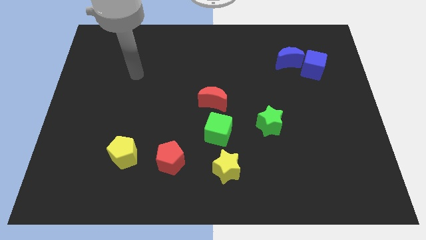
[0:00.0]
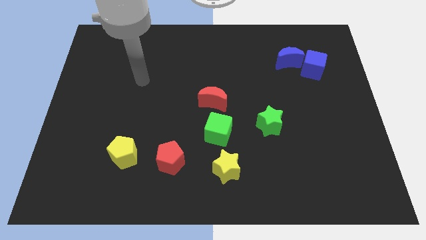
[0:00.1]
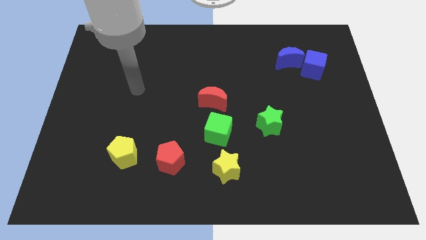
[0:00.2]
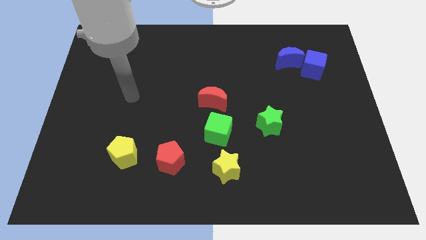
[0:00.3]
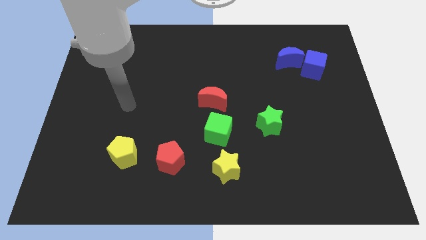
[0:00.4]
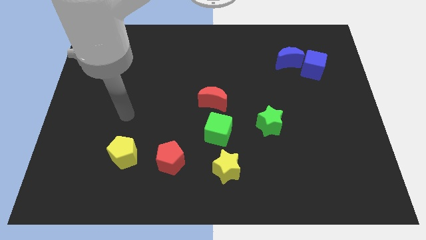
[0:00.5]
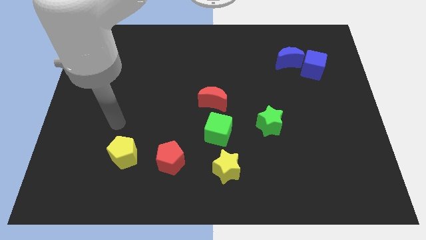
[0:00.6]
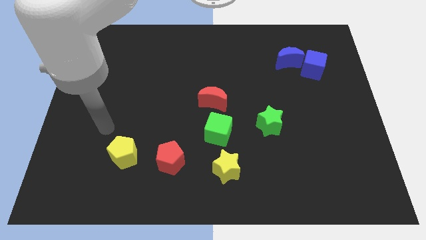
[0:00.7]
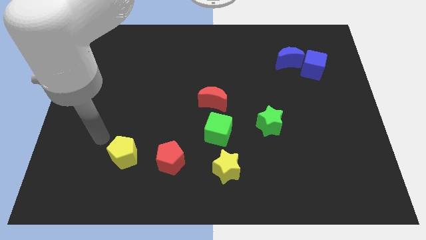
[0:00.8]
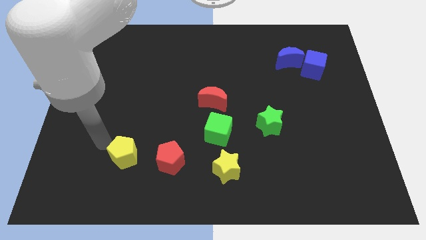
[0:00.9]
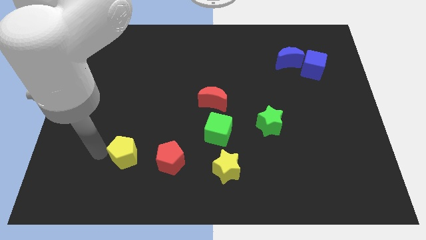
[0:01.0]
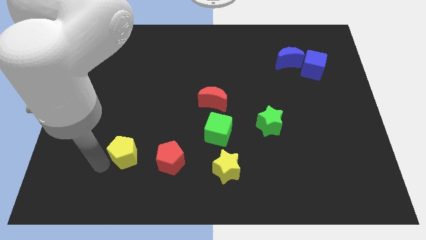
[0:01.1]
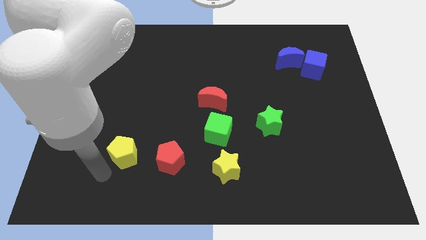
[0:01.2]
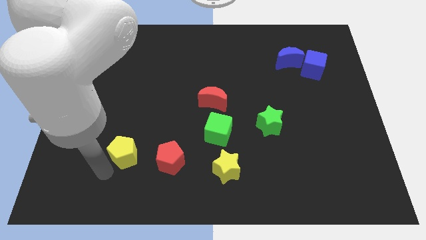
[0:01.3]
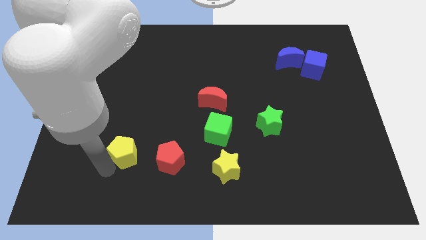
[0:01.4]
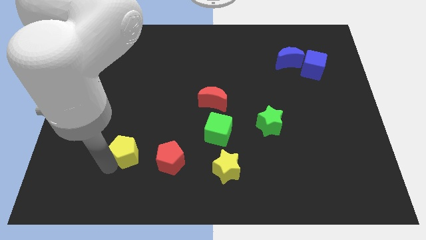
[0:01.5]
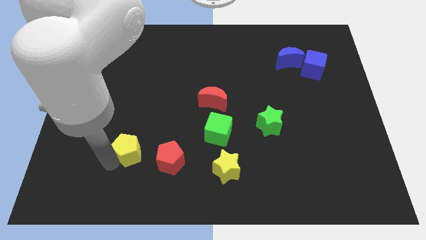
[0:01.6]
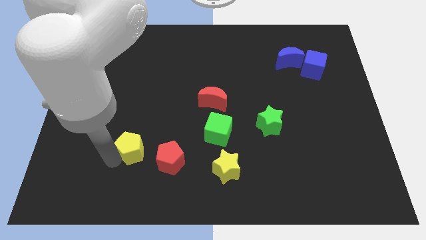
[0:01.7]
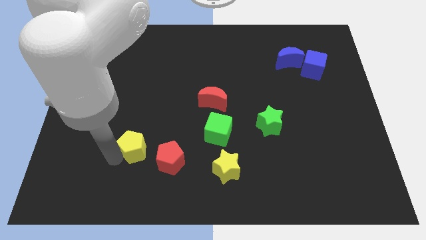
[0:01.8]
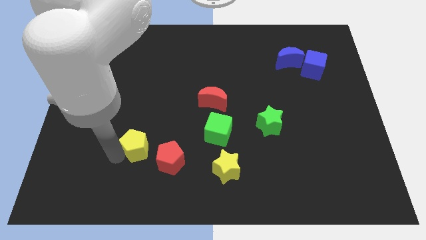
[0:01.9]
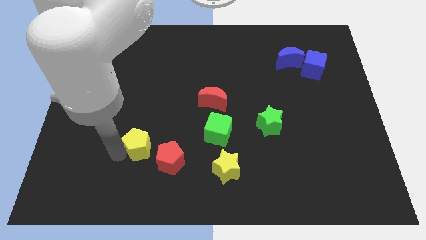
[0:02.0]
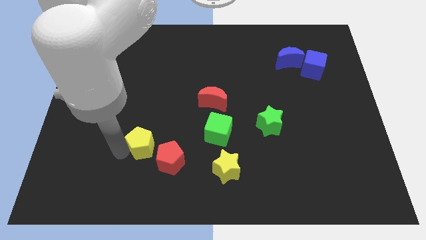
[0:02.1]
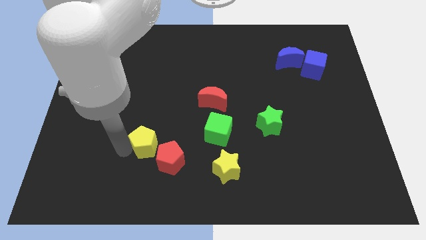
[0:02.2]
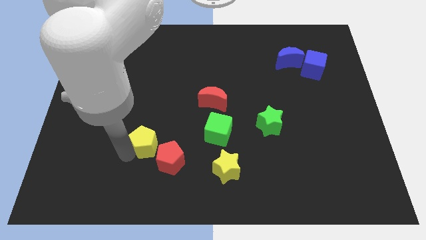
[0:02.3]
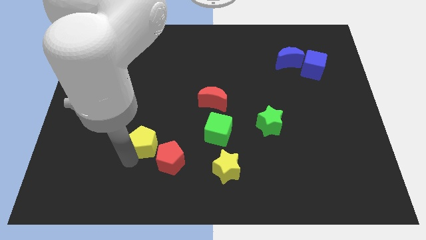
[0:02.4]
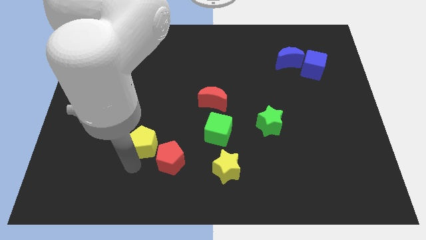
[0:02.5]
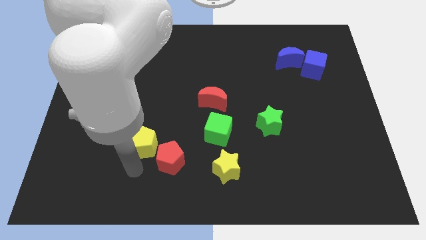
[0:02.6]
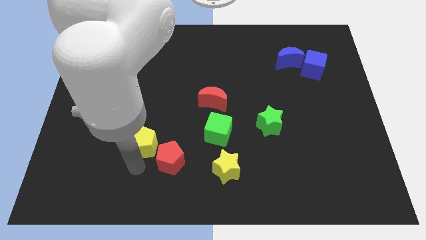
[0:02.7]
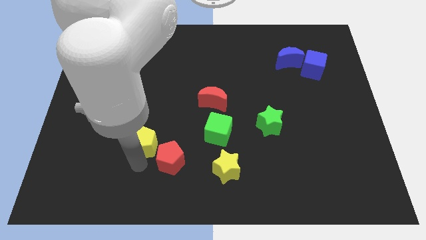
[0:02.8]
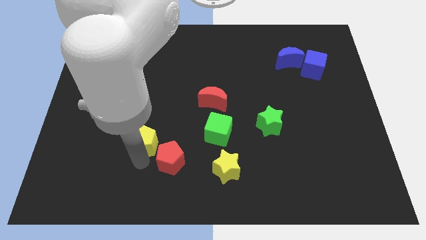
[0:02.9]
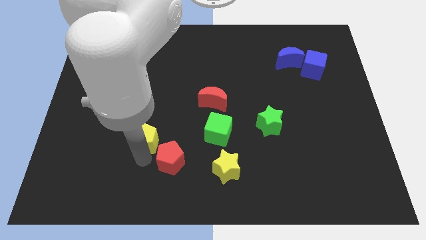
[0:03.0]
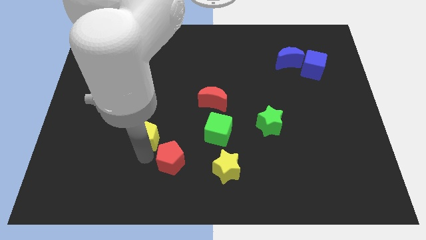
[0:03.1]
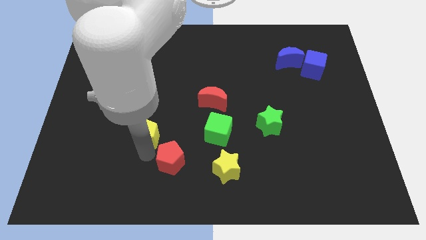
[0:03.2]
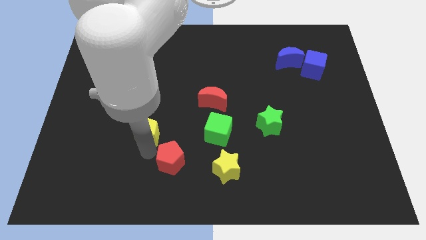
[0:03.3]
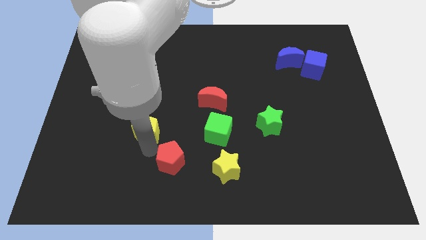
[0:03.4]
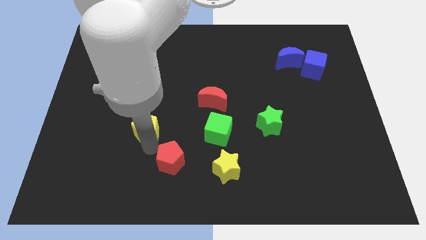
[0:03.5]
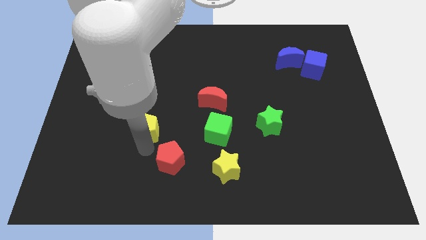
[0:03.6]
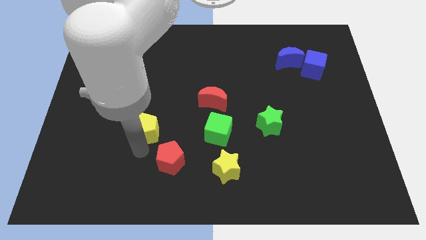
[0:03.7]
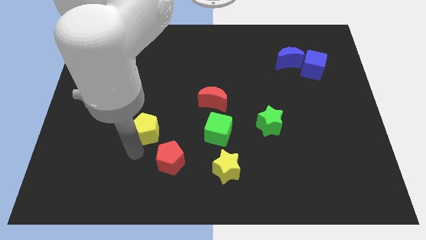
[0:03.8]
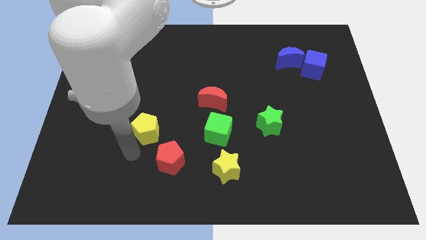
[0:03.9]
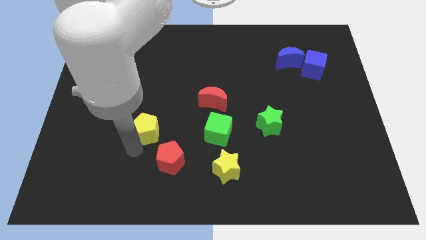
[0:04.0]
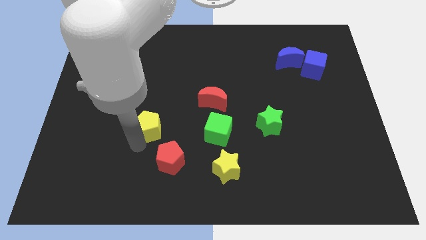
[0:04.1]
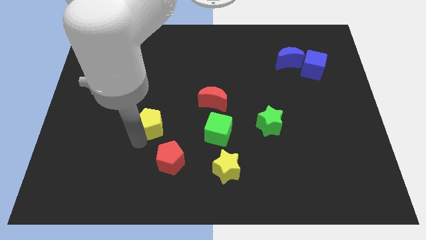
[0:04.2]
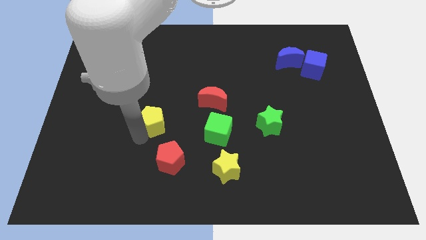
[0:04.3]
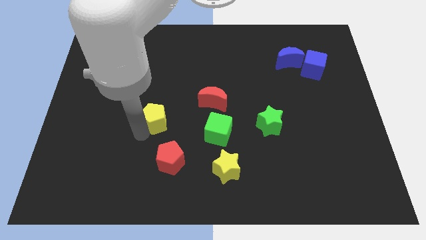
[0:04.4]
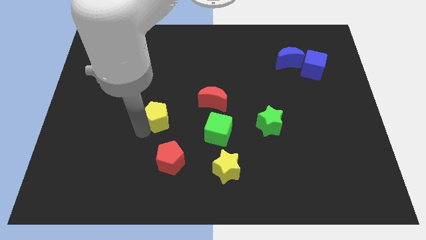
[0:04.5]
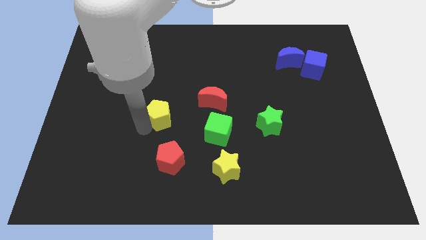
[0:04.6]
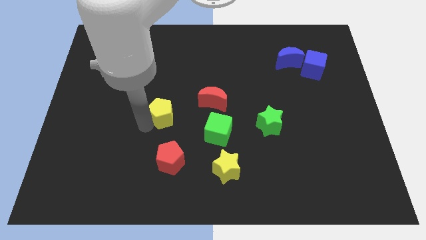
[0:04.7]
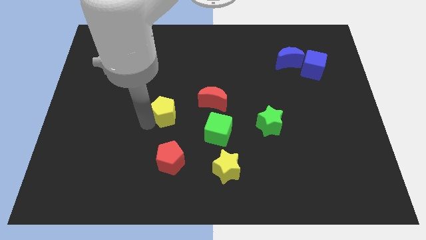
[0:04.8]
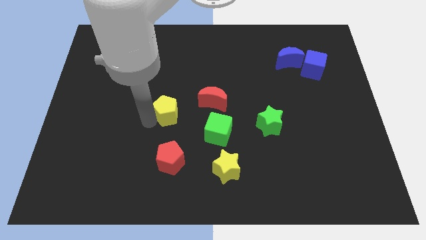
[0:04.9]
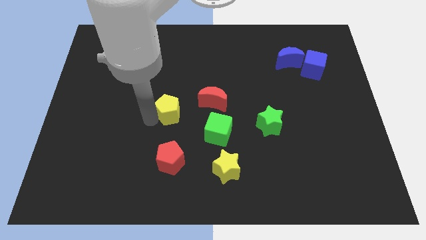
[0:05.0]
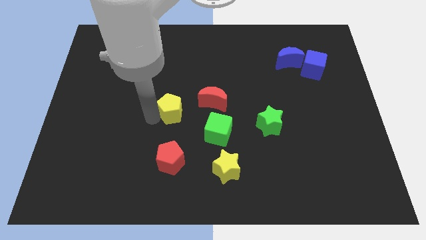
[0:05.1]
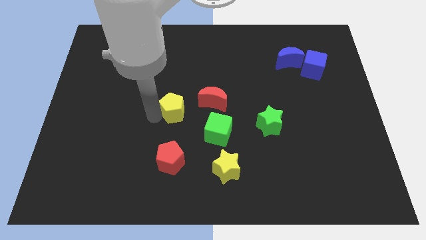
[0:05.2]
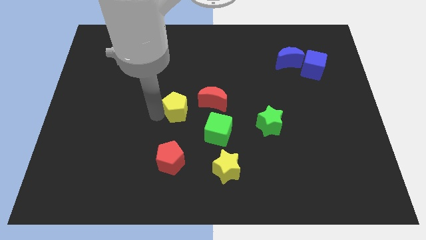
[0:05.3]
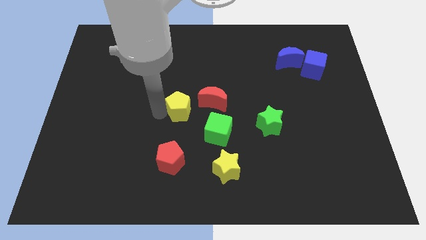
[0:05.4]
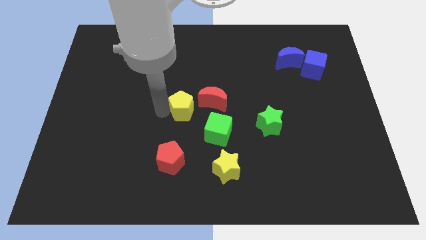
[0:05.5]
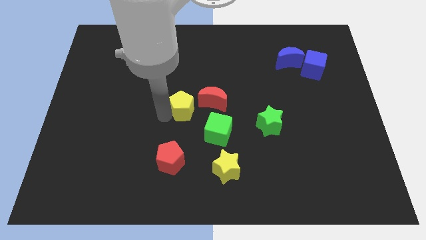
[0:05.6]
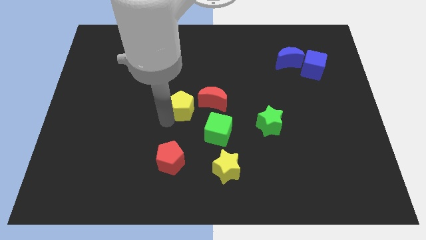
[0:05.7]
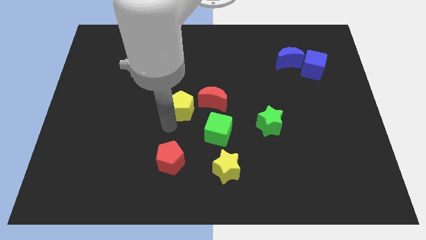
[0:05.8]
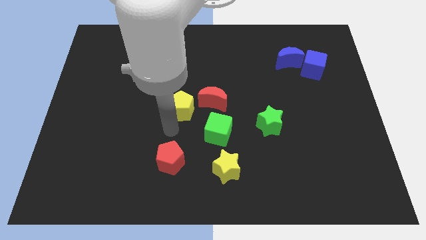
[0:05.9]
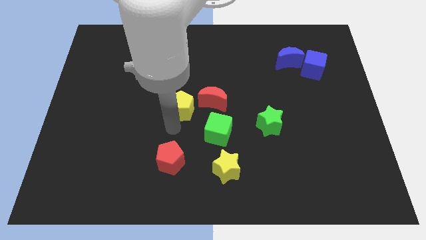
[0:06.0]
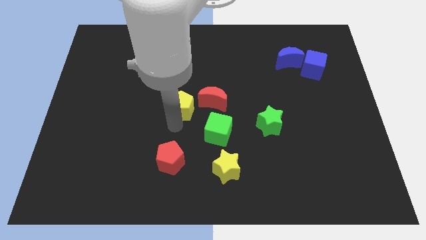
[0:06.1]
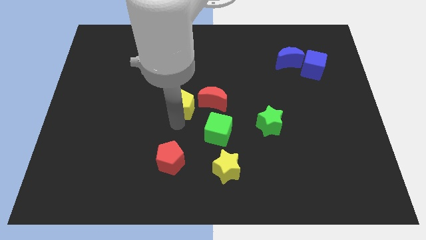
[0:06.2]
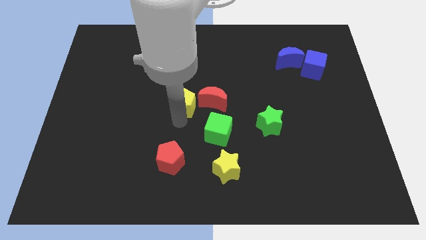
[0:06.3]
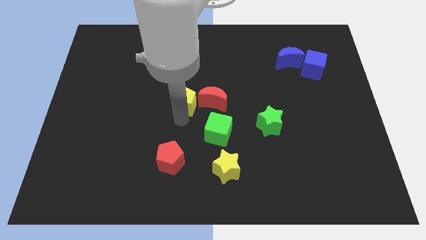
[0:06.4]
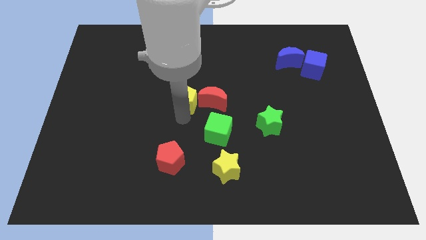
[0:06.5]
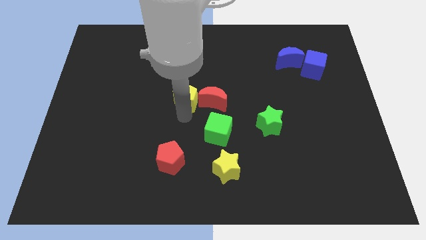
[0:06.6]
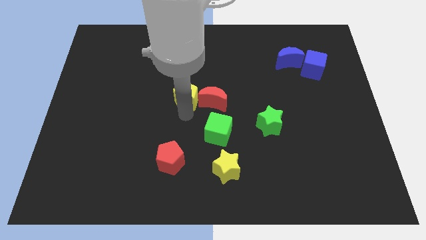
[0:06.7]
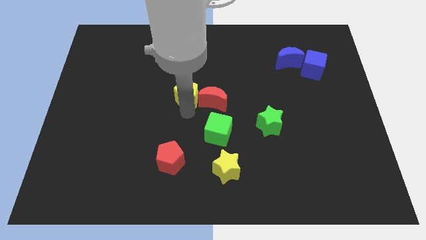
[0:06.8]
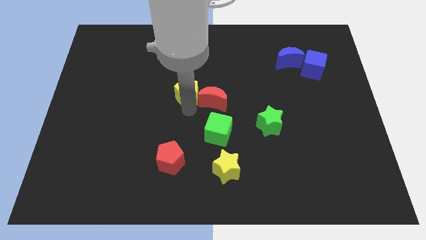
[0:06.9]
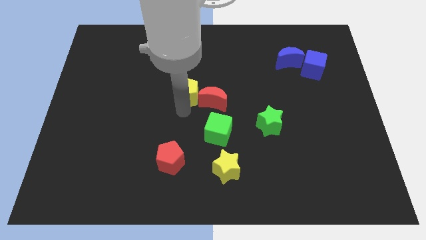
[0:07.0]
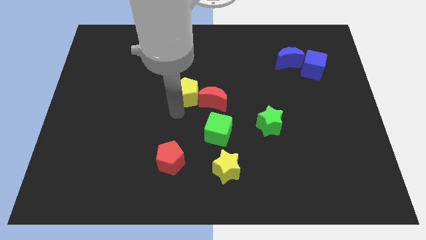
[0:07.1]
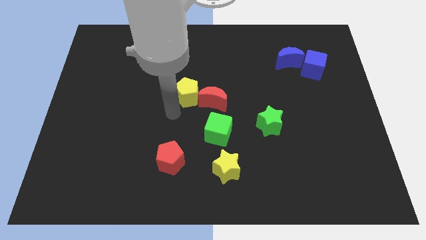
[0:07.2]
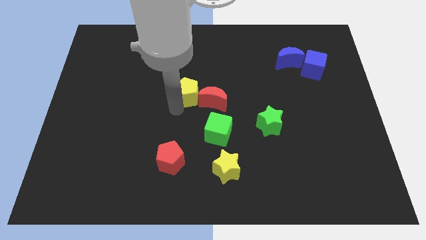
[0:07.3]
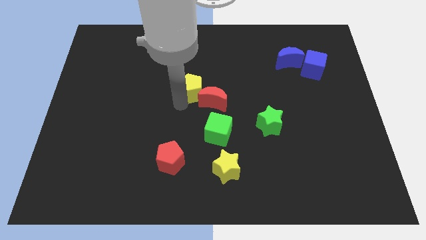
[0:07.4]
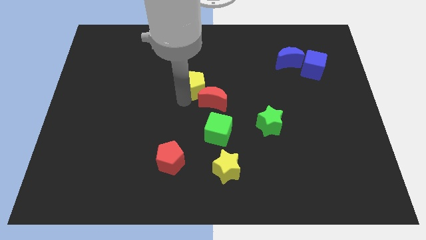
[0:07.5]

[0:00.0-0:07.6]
move the yellow pentagon to the top side of the red moon

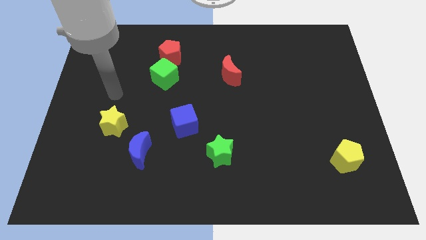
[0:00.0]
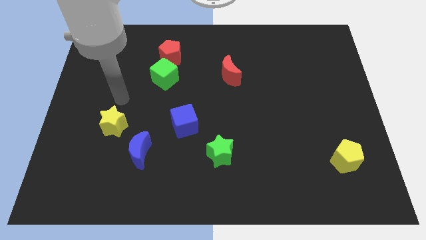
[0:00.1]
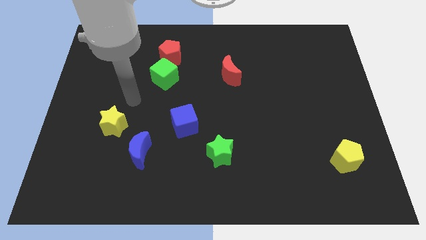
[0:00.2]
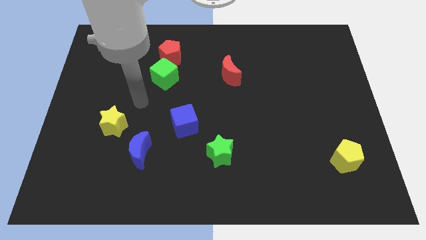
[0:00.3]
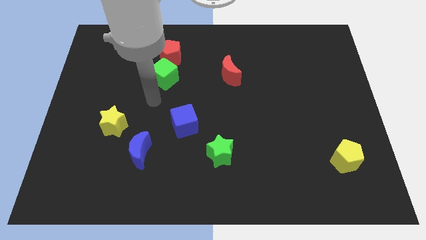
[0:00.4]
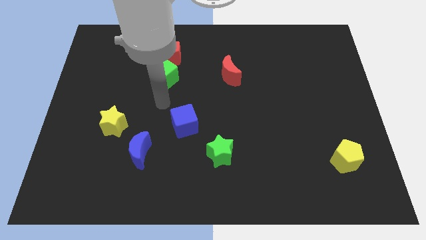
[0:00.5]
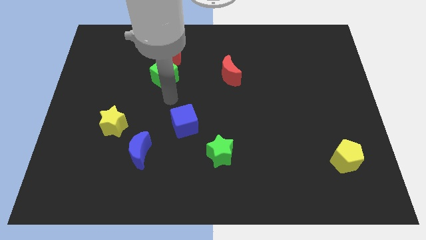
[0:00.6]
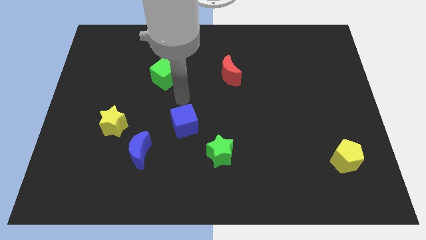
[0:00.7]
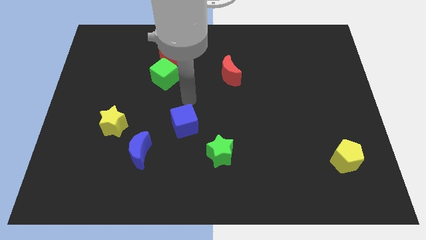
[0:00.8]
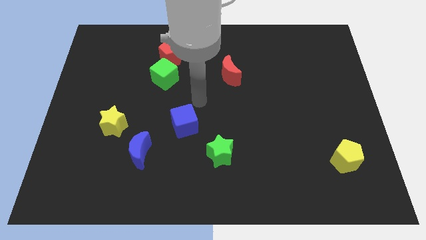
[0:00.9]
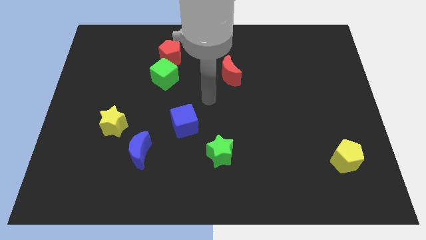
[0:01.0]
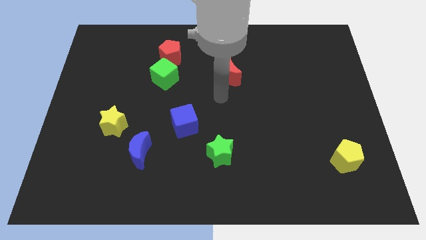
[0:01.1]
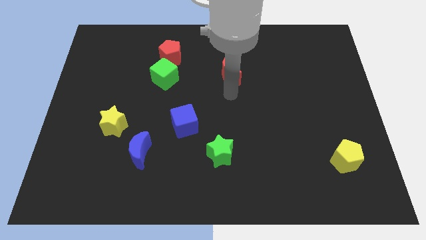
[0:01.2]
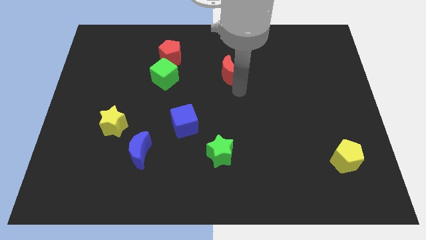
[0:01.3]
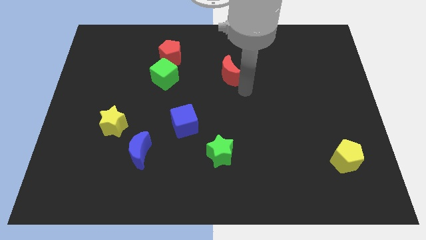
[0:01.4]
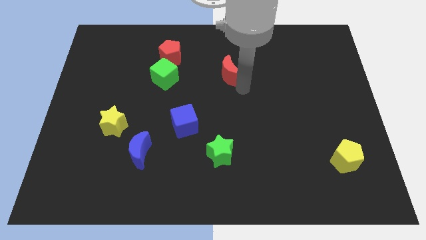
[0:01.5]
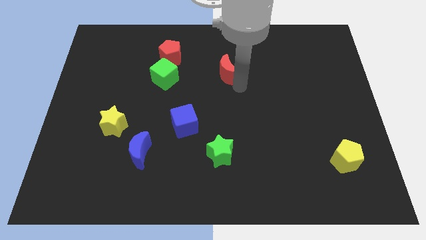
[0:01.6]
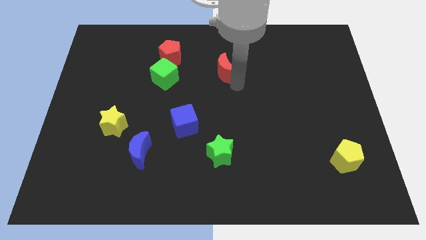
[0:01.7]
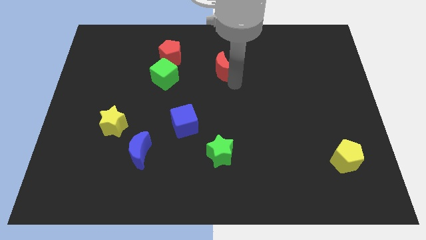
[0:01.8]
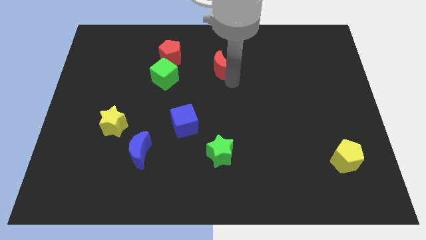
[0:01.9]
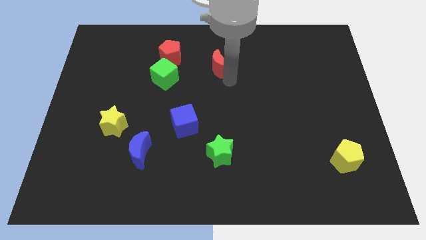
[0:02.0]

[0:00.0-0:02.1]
put the red moon to the right side of the red pentagon
